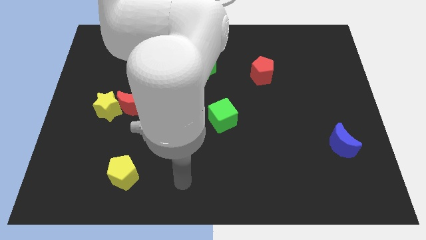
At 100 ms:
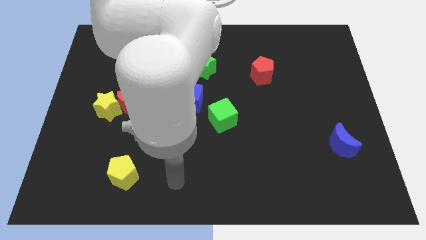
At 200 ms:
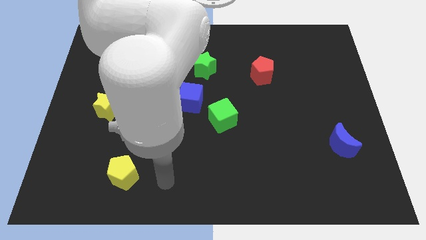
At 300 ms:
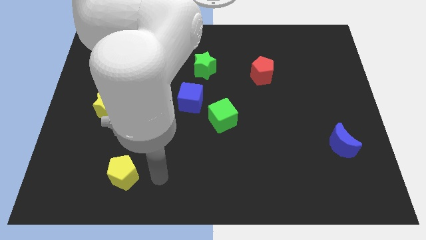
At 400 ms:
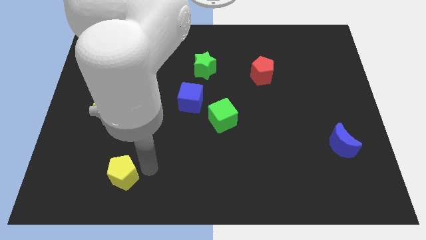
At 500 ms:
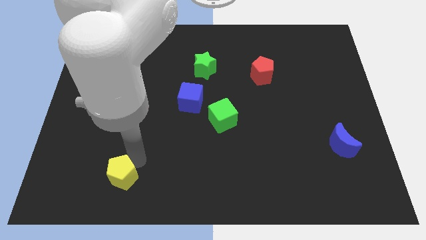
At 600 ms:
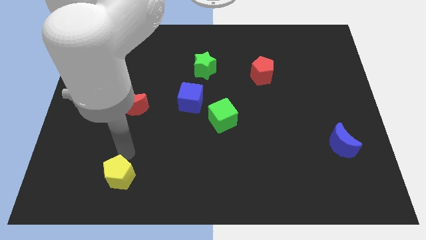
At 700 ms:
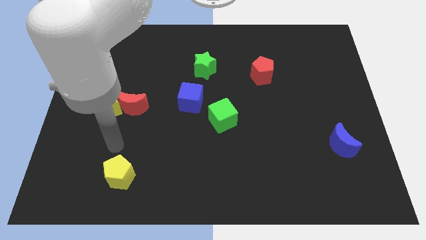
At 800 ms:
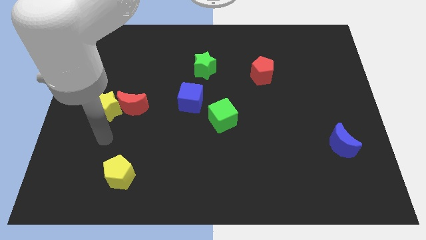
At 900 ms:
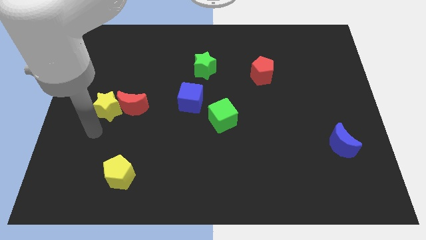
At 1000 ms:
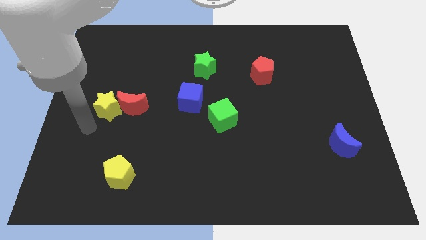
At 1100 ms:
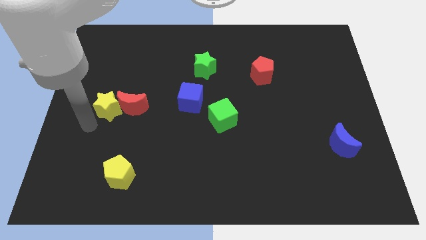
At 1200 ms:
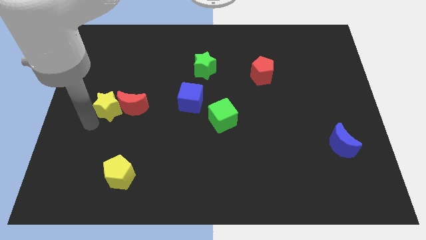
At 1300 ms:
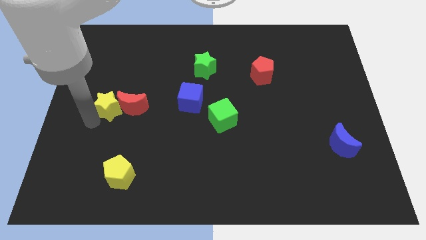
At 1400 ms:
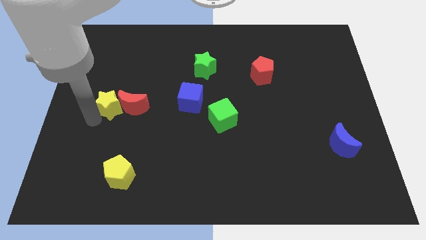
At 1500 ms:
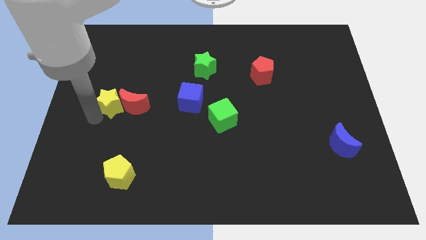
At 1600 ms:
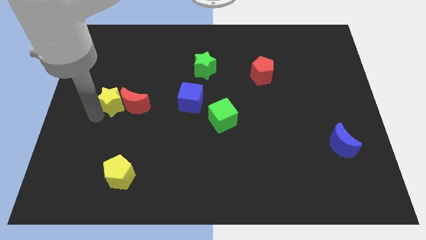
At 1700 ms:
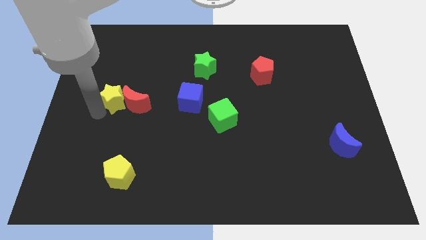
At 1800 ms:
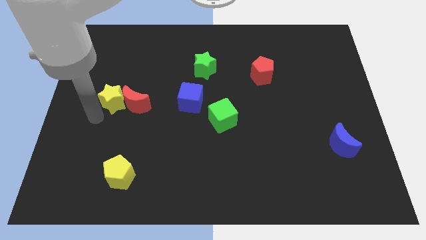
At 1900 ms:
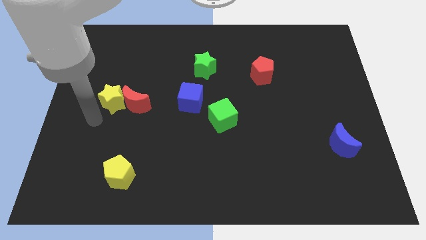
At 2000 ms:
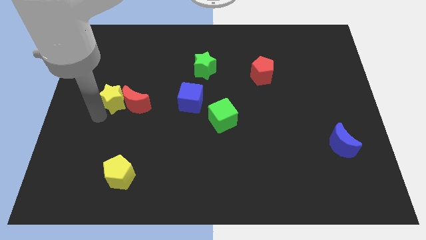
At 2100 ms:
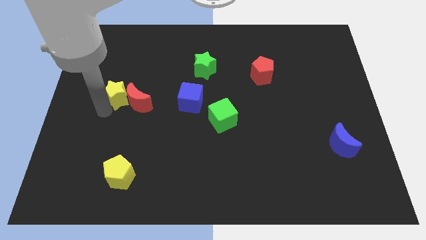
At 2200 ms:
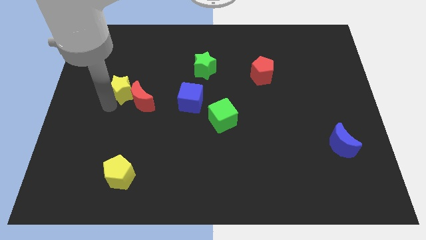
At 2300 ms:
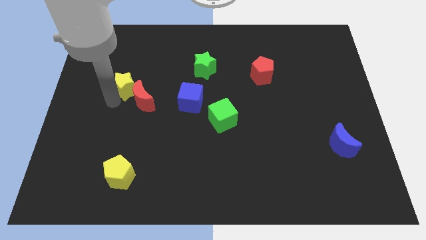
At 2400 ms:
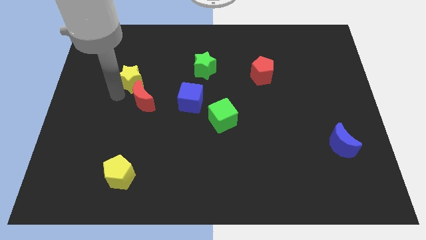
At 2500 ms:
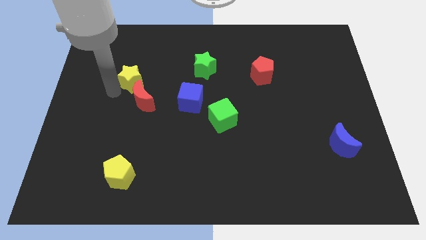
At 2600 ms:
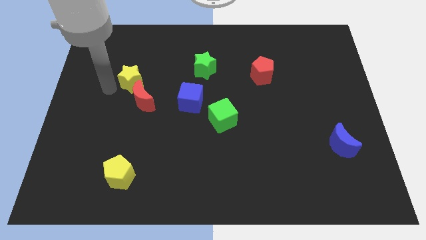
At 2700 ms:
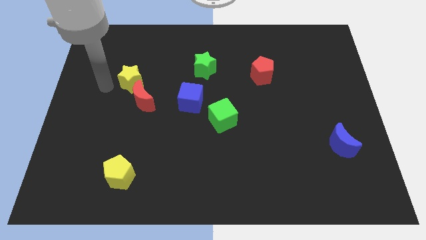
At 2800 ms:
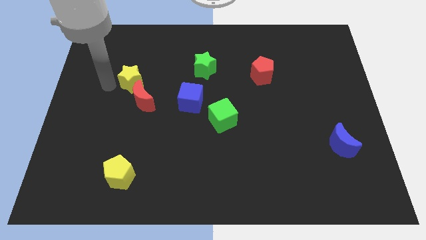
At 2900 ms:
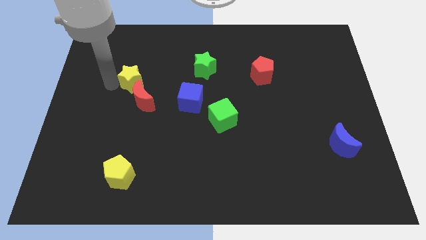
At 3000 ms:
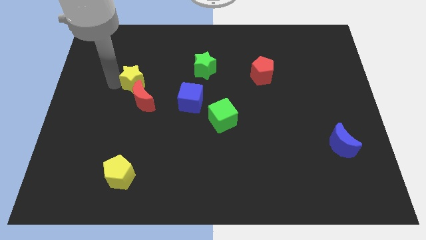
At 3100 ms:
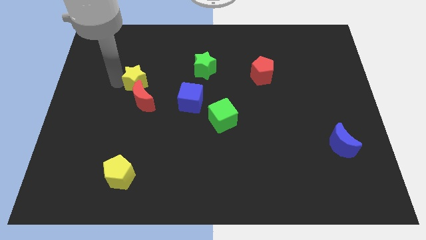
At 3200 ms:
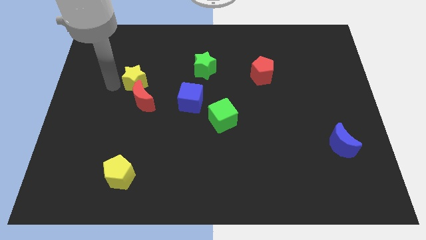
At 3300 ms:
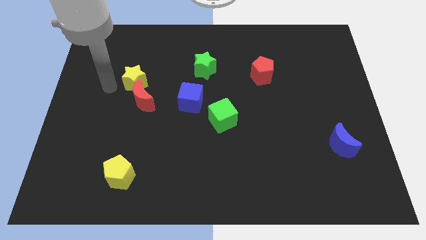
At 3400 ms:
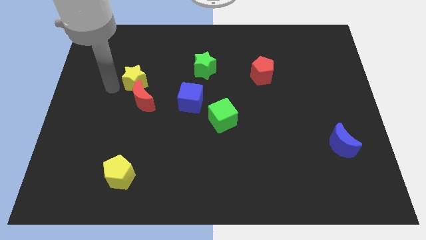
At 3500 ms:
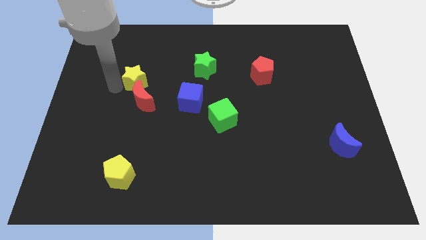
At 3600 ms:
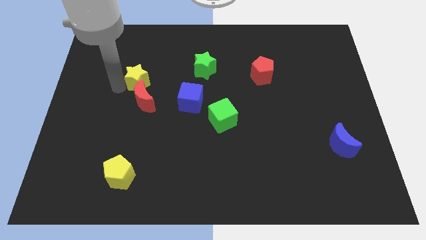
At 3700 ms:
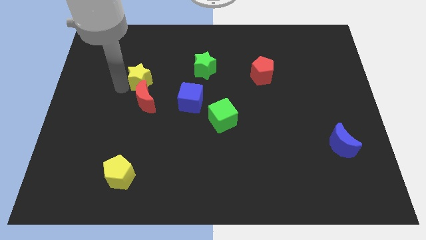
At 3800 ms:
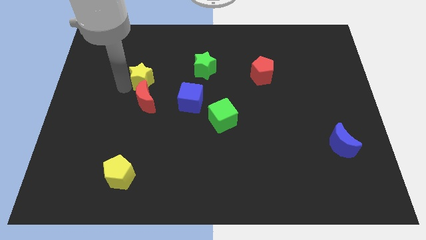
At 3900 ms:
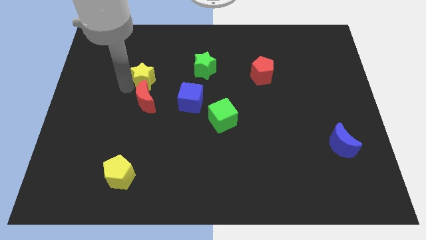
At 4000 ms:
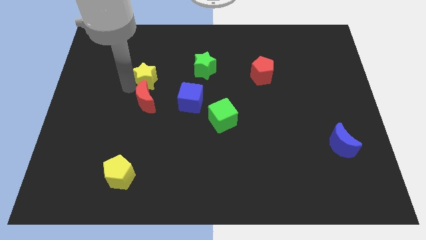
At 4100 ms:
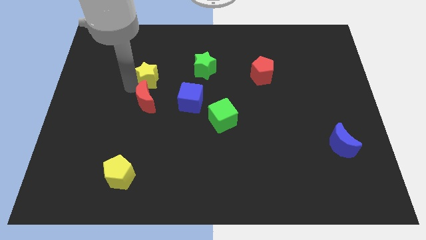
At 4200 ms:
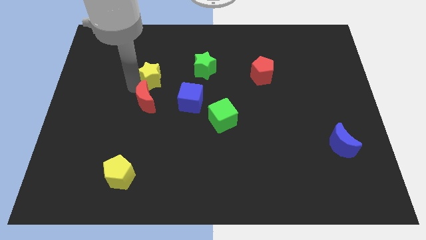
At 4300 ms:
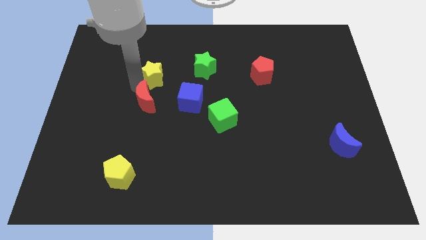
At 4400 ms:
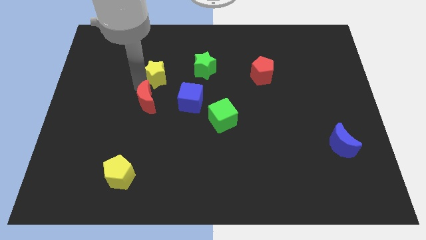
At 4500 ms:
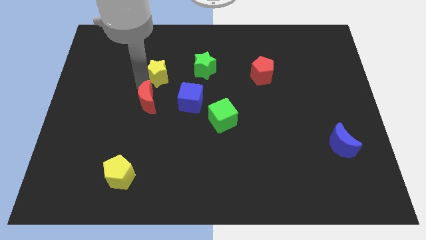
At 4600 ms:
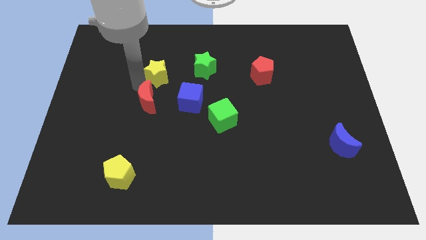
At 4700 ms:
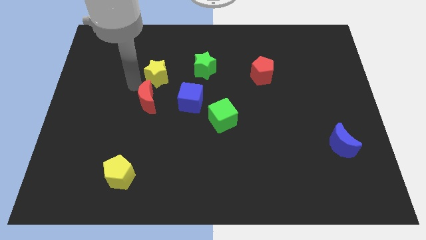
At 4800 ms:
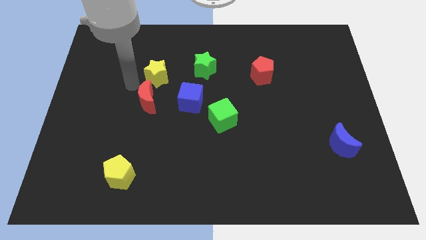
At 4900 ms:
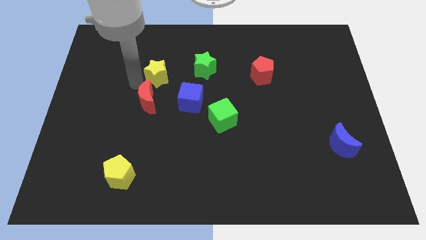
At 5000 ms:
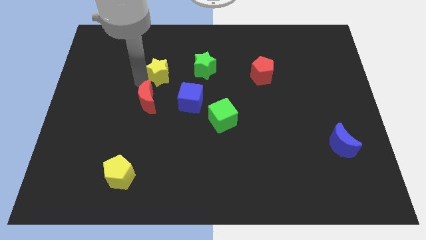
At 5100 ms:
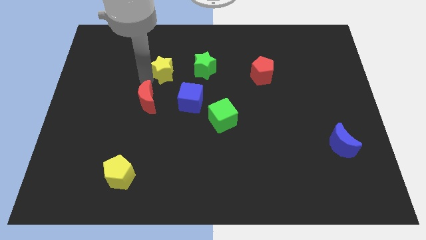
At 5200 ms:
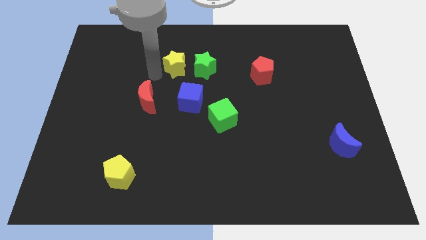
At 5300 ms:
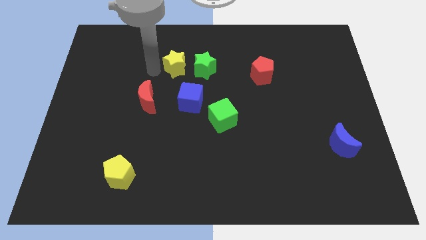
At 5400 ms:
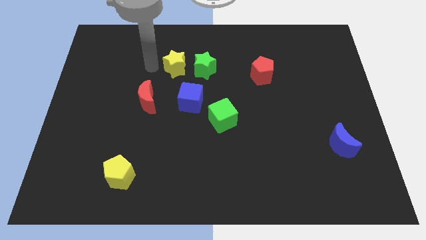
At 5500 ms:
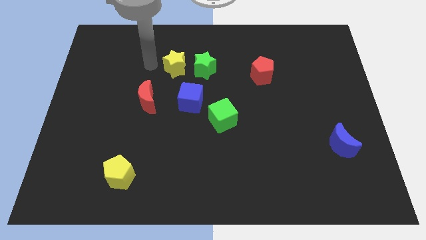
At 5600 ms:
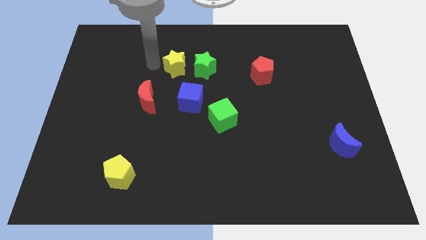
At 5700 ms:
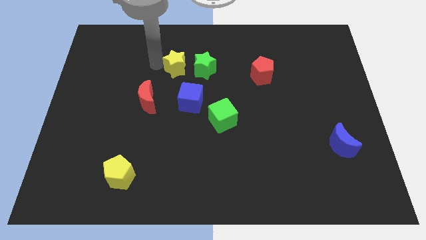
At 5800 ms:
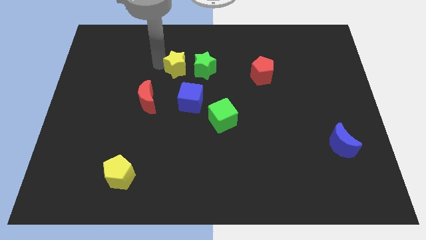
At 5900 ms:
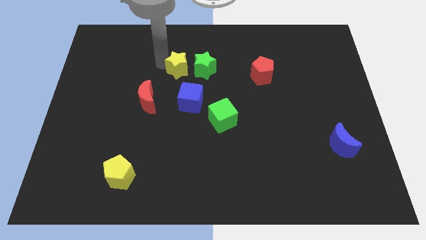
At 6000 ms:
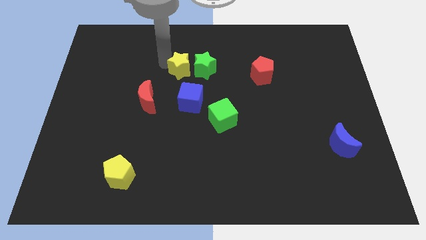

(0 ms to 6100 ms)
move the yellow star close to the green star

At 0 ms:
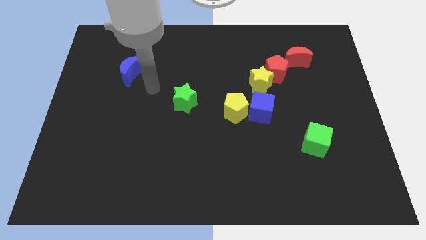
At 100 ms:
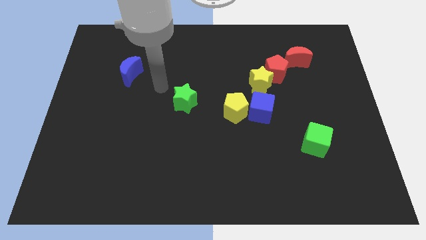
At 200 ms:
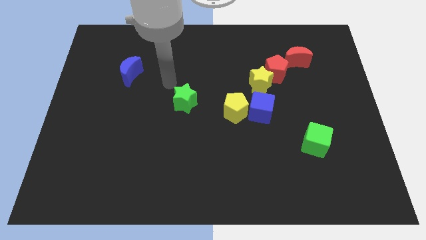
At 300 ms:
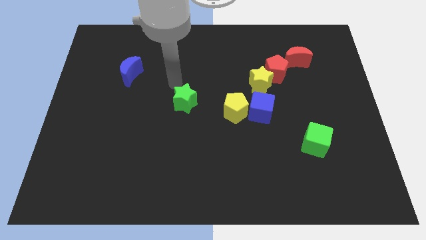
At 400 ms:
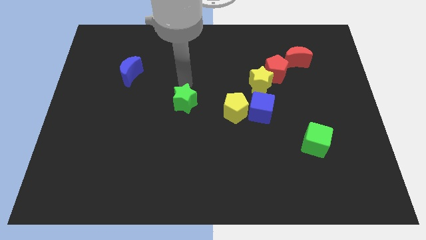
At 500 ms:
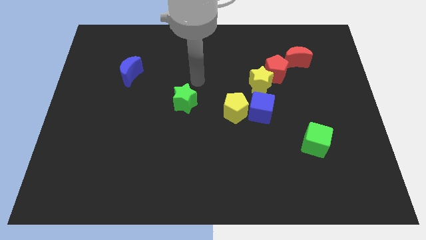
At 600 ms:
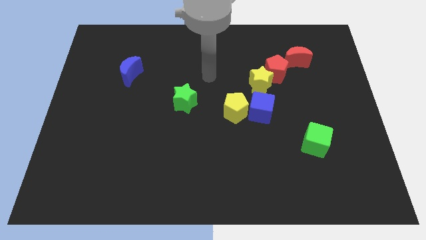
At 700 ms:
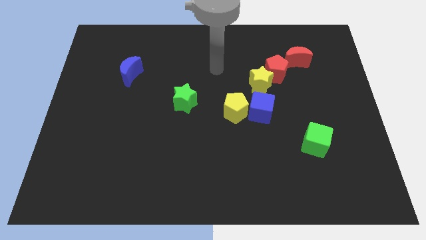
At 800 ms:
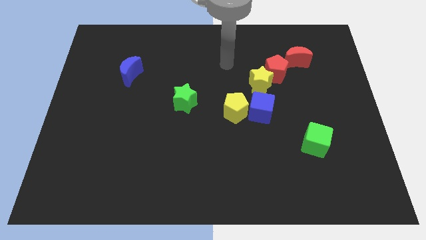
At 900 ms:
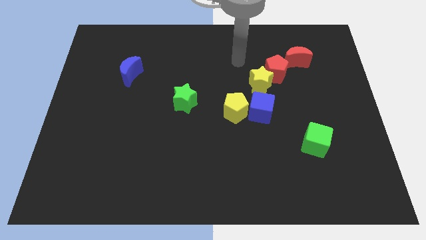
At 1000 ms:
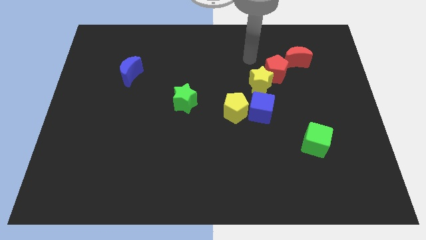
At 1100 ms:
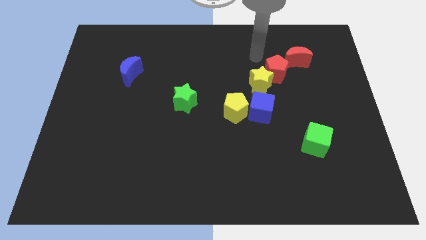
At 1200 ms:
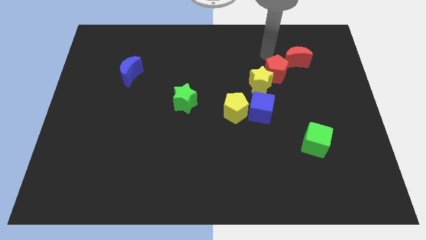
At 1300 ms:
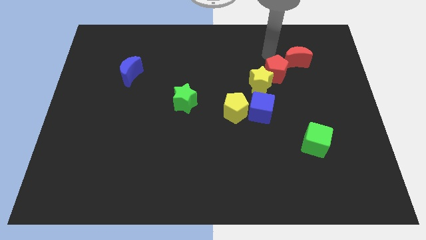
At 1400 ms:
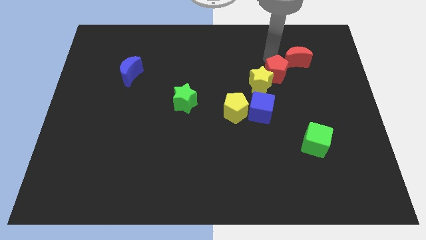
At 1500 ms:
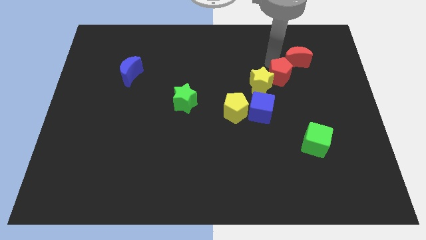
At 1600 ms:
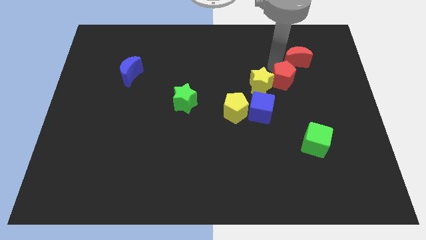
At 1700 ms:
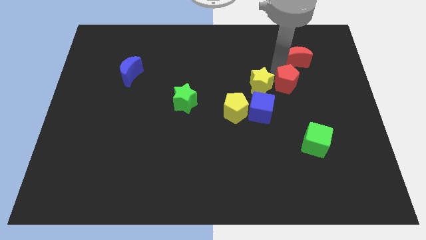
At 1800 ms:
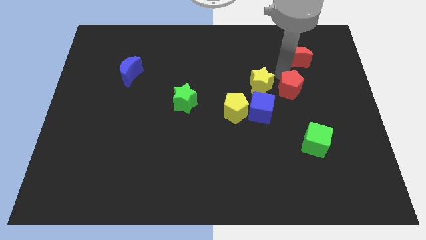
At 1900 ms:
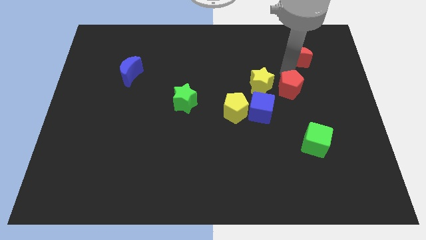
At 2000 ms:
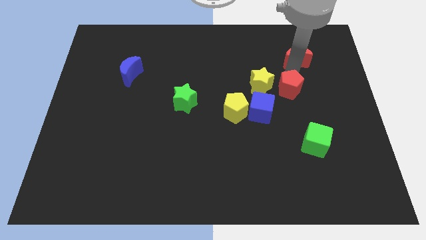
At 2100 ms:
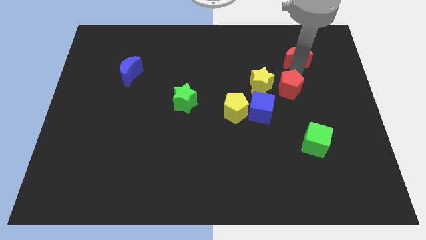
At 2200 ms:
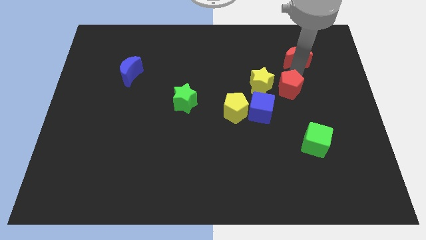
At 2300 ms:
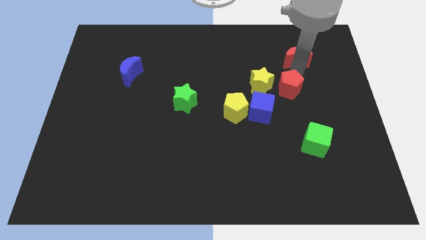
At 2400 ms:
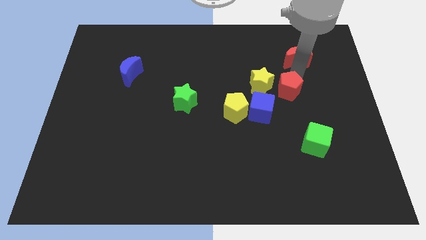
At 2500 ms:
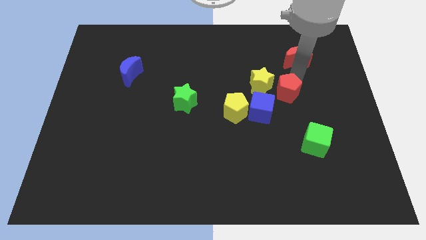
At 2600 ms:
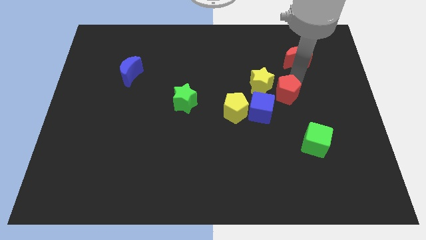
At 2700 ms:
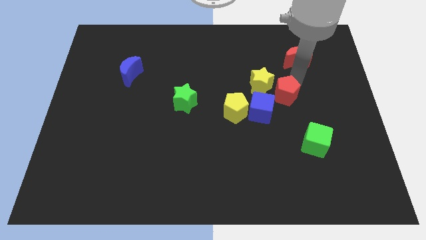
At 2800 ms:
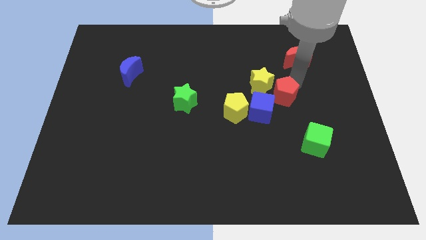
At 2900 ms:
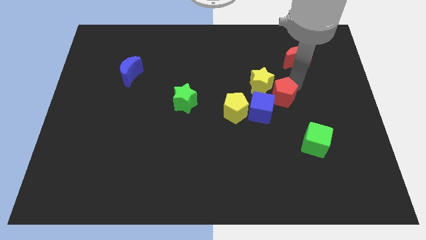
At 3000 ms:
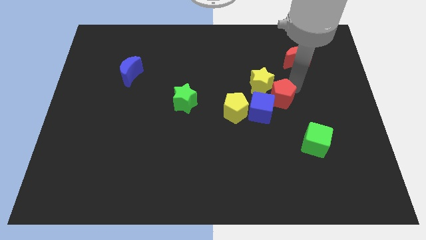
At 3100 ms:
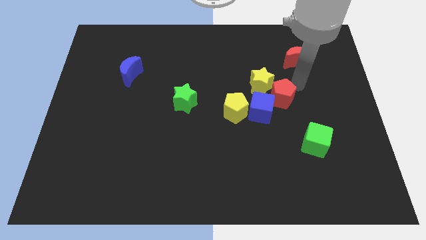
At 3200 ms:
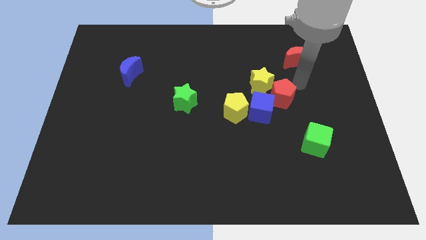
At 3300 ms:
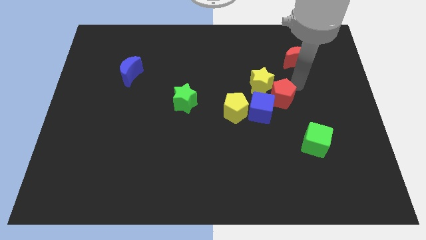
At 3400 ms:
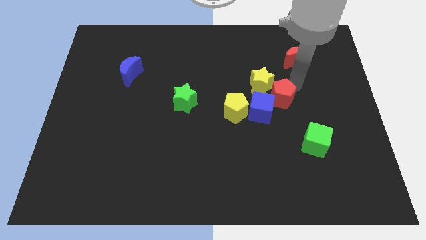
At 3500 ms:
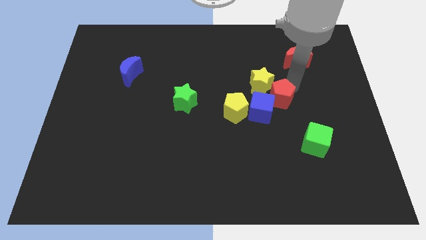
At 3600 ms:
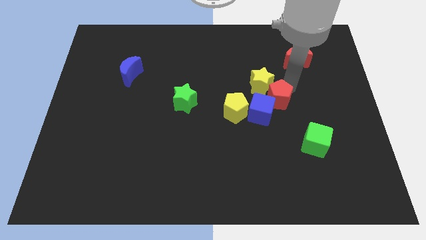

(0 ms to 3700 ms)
move the red pentagon towards the blue cube
